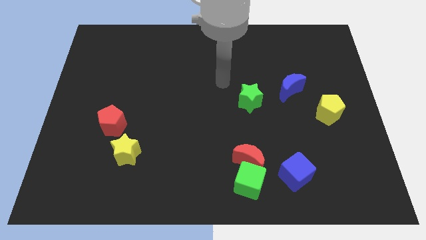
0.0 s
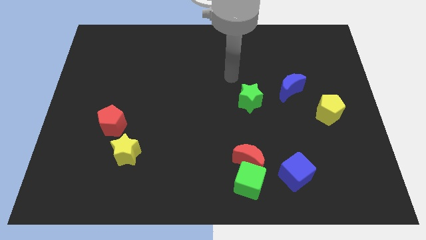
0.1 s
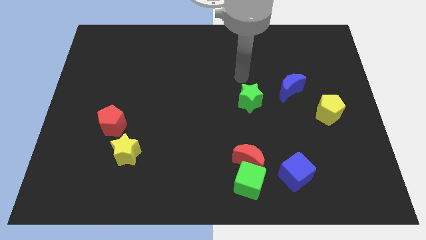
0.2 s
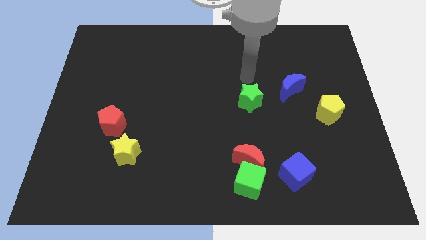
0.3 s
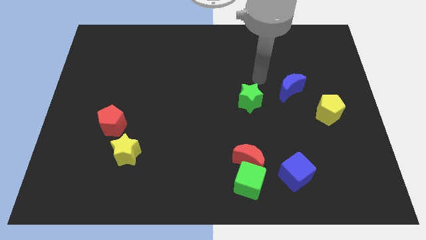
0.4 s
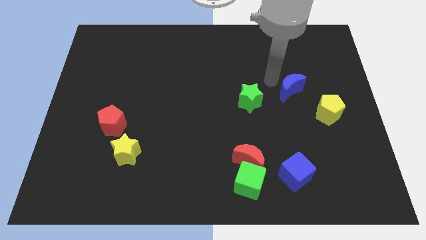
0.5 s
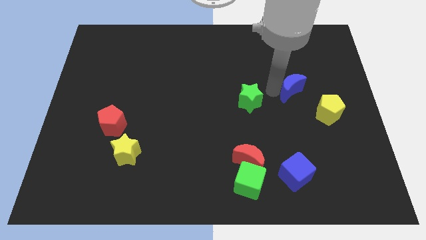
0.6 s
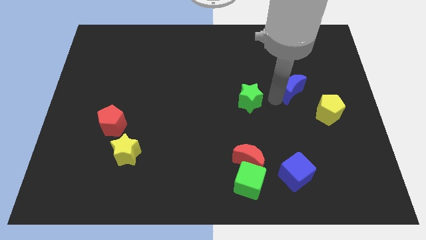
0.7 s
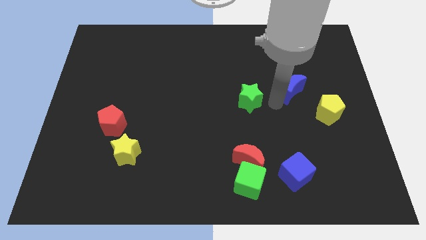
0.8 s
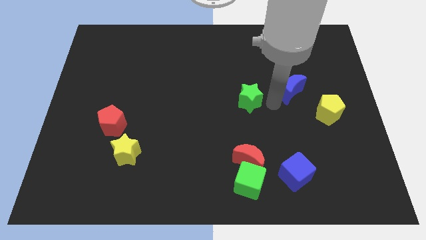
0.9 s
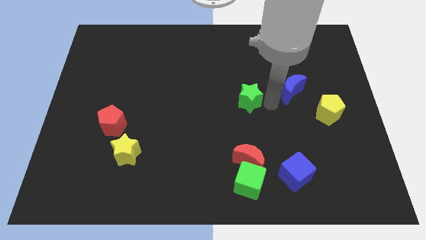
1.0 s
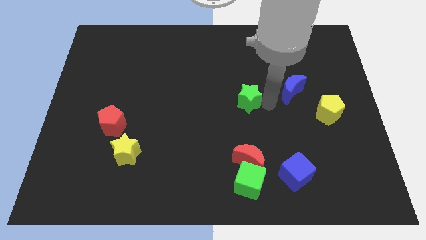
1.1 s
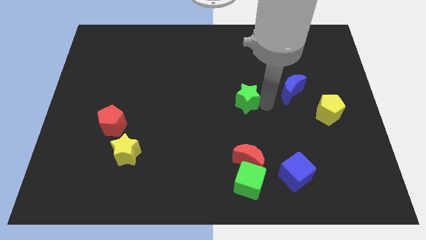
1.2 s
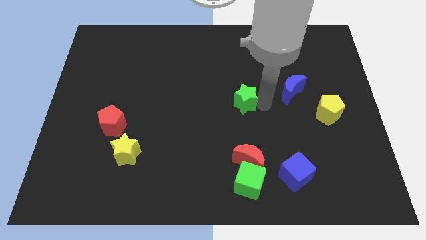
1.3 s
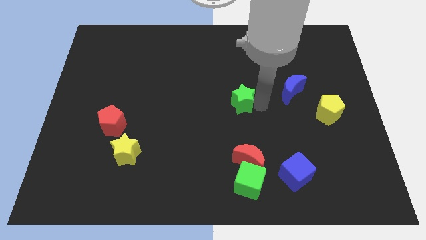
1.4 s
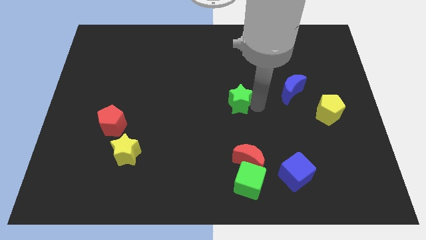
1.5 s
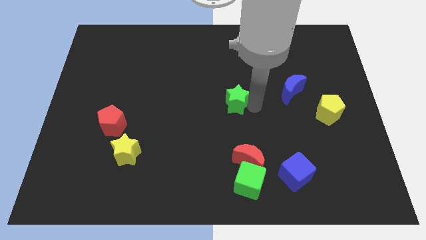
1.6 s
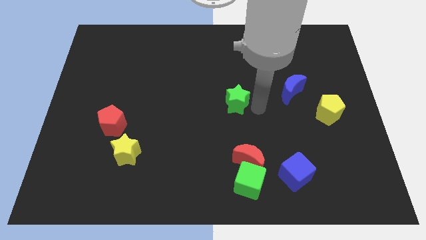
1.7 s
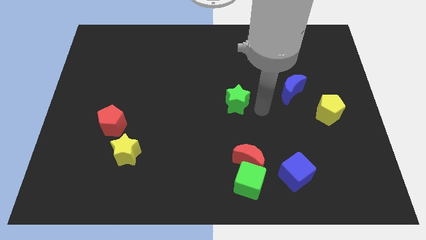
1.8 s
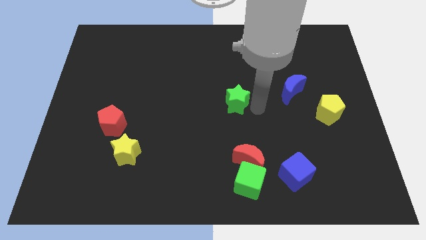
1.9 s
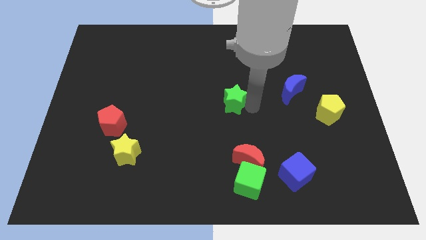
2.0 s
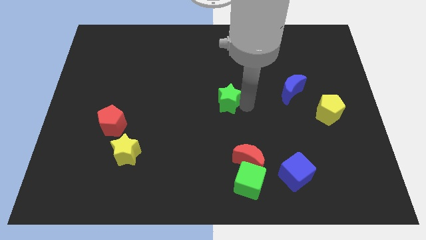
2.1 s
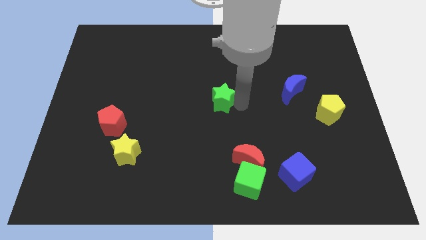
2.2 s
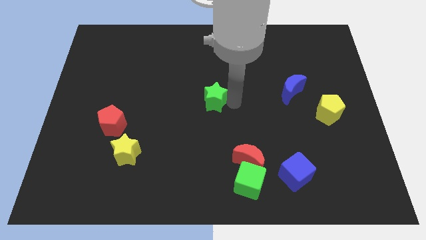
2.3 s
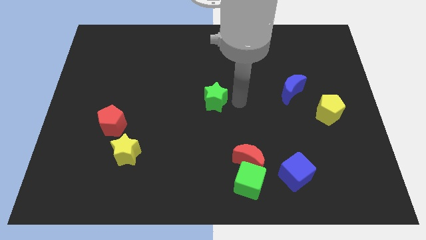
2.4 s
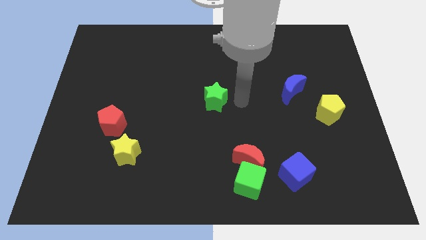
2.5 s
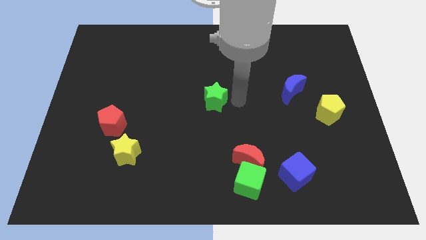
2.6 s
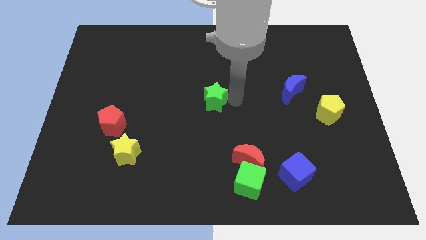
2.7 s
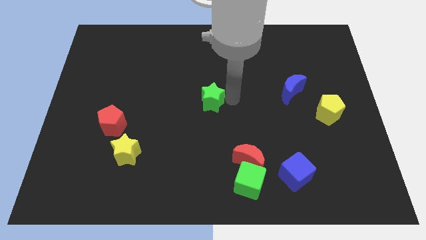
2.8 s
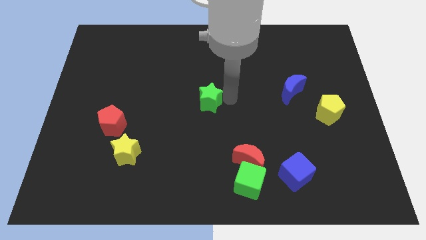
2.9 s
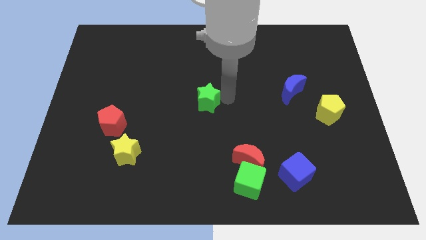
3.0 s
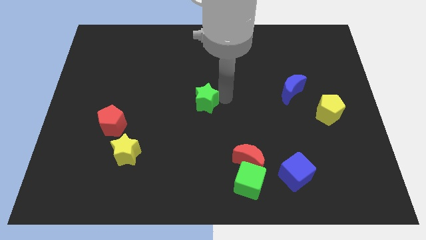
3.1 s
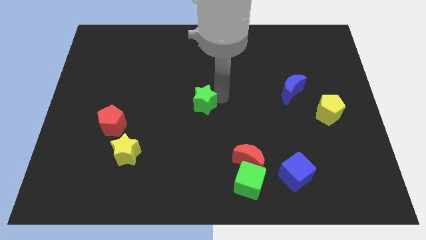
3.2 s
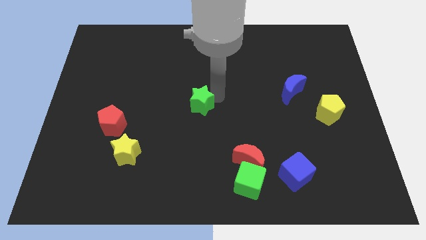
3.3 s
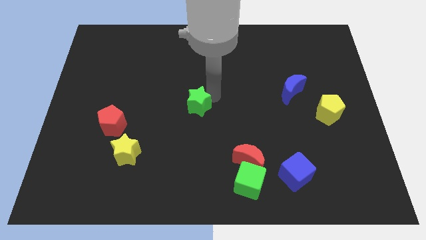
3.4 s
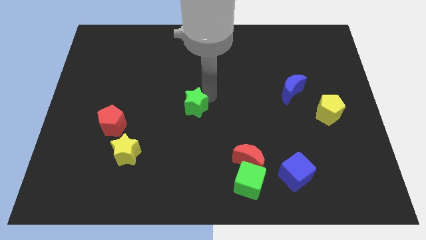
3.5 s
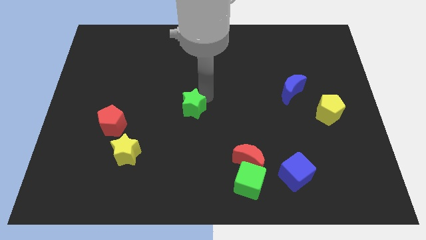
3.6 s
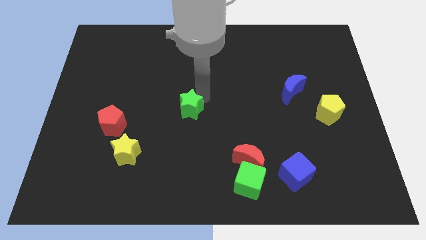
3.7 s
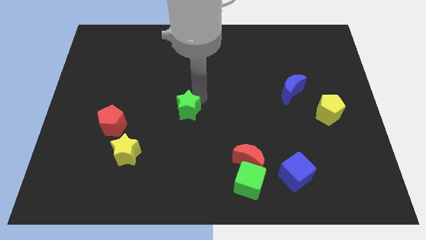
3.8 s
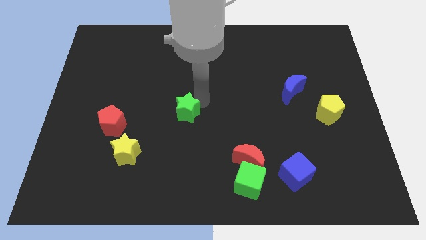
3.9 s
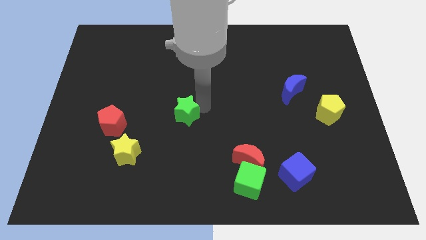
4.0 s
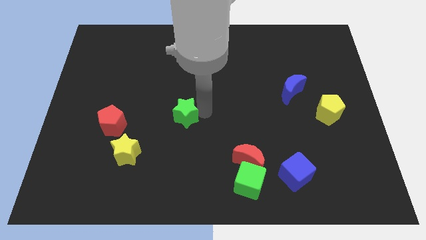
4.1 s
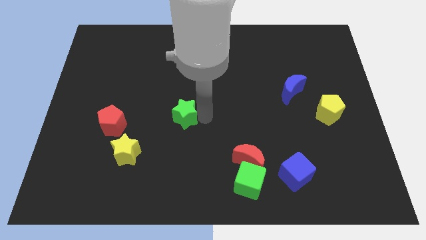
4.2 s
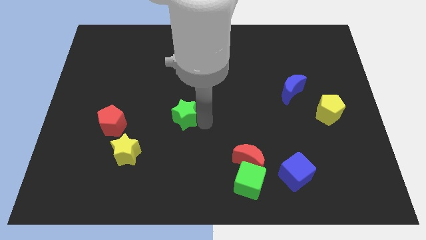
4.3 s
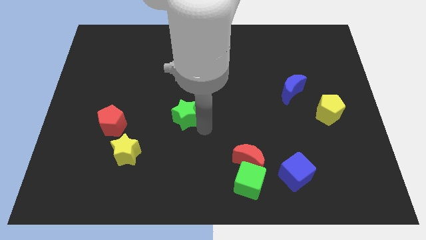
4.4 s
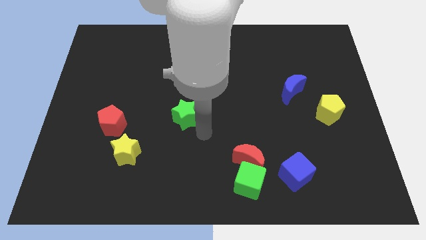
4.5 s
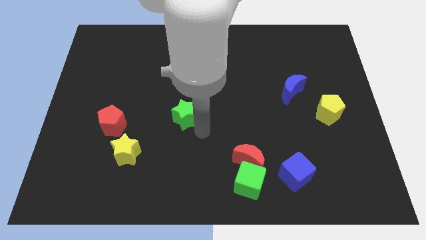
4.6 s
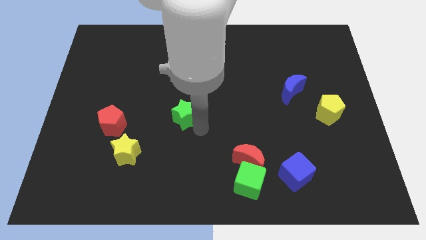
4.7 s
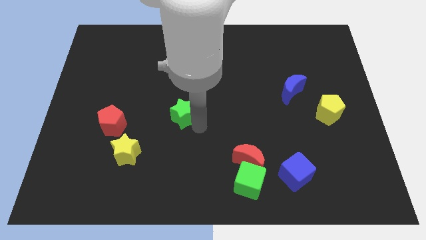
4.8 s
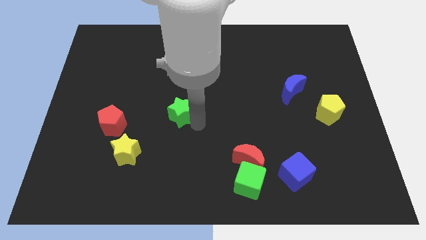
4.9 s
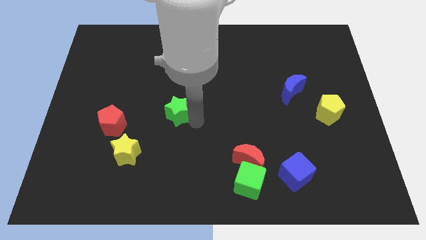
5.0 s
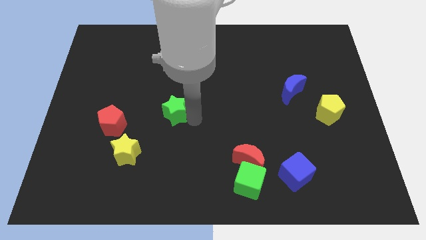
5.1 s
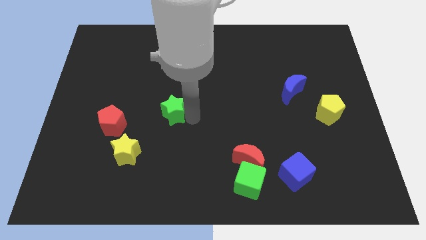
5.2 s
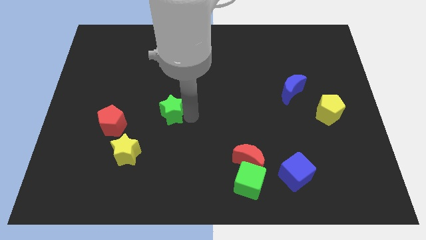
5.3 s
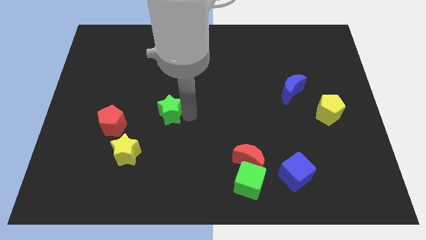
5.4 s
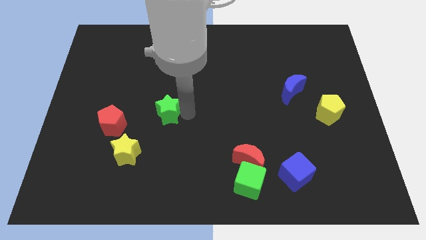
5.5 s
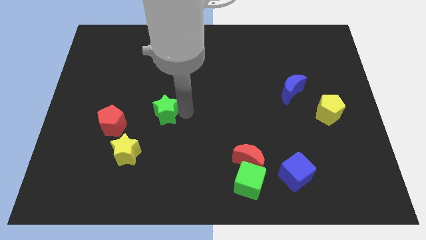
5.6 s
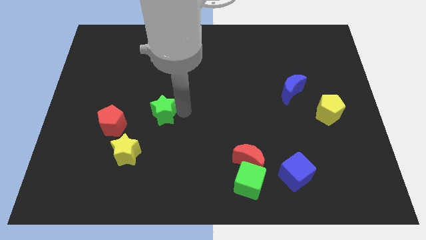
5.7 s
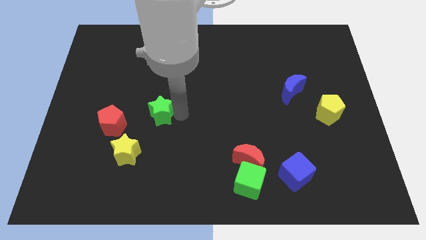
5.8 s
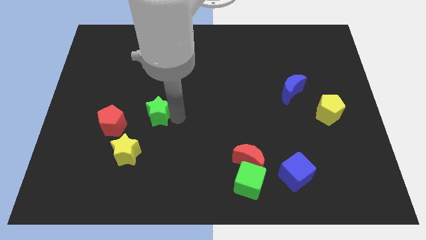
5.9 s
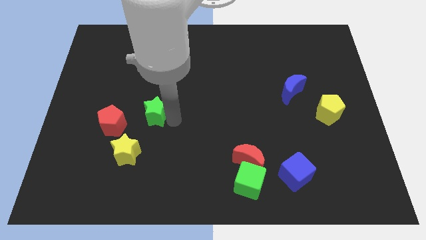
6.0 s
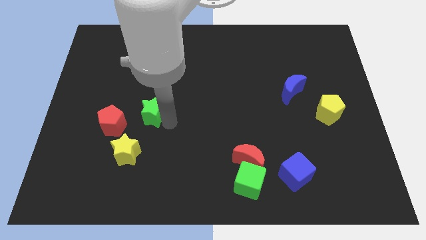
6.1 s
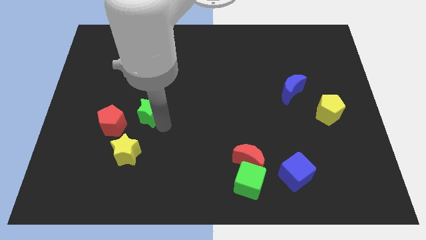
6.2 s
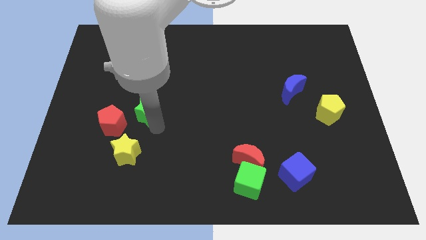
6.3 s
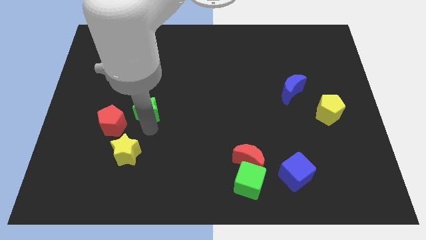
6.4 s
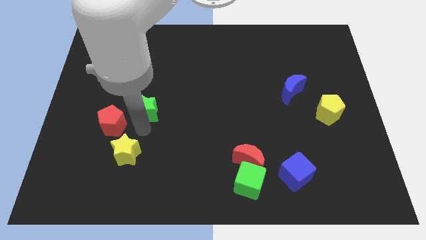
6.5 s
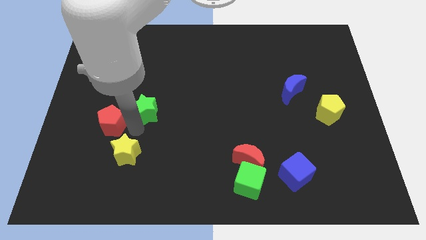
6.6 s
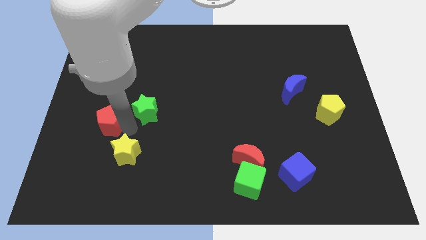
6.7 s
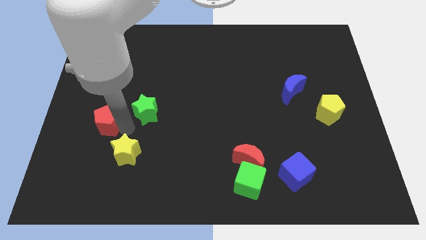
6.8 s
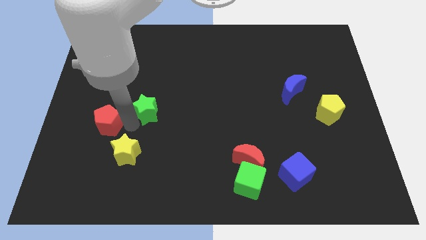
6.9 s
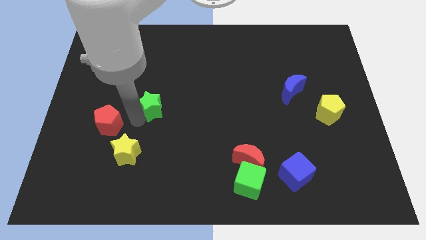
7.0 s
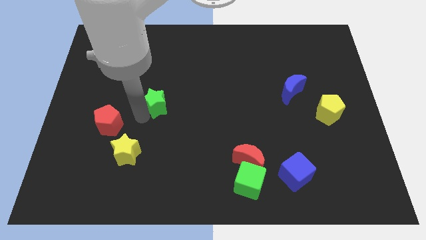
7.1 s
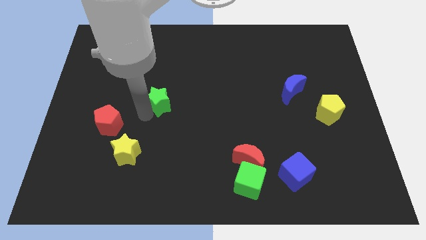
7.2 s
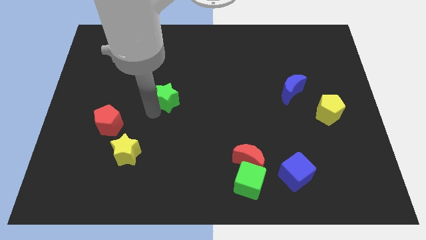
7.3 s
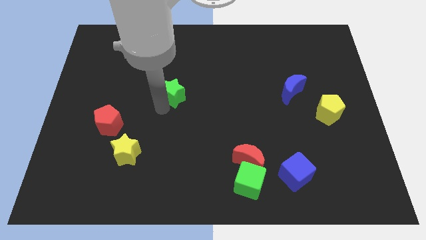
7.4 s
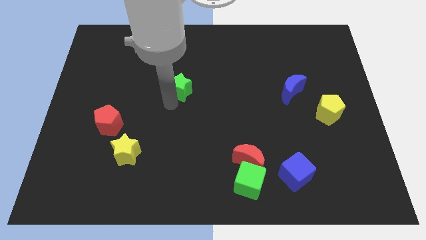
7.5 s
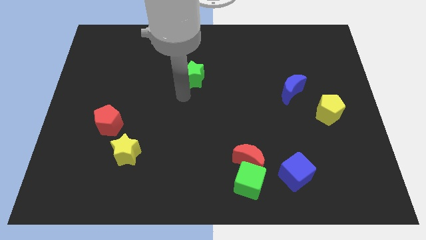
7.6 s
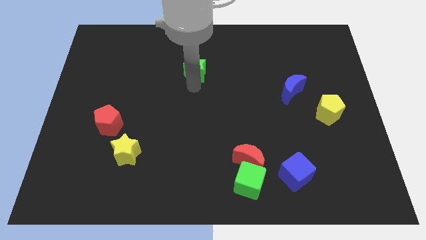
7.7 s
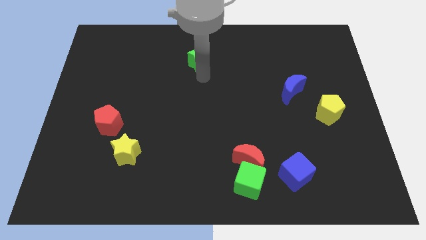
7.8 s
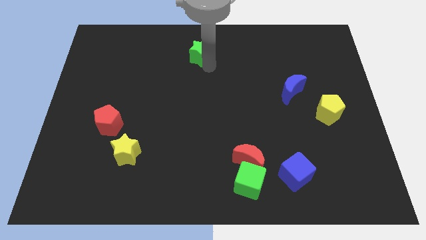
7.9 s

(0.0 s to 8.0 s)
slide the green star to the top
